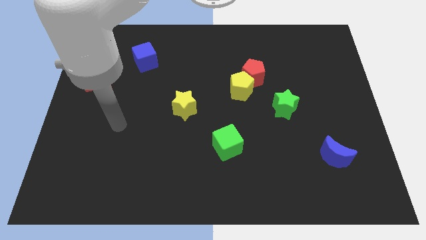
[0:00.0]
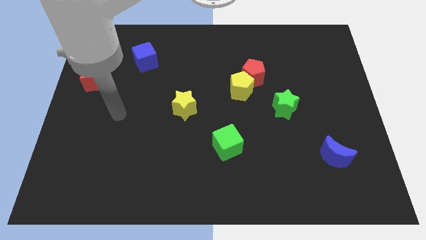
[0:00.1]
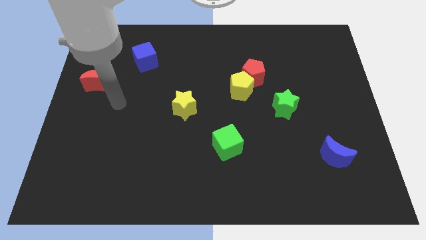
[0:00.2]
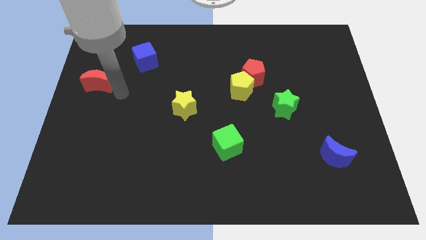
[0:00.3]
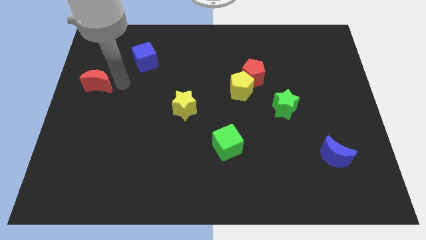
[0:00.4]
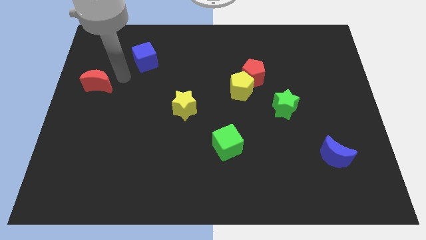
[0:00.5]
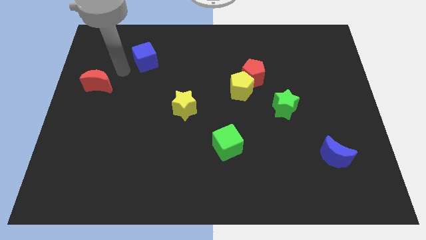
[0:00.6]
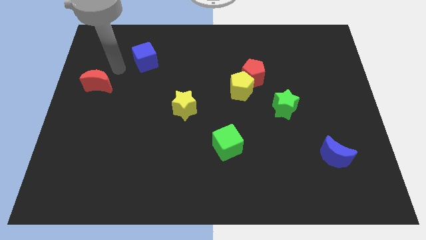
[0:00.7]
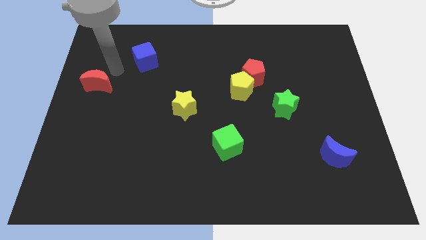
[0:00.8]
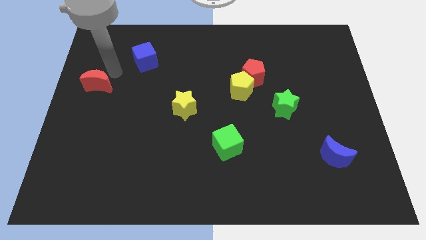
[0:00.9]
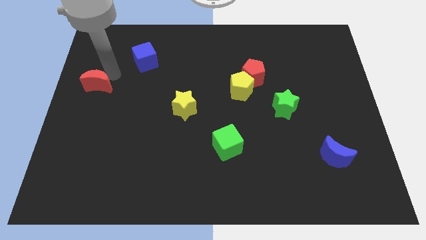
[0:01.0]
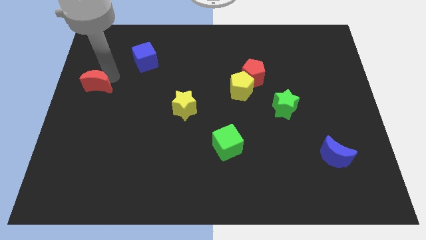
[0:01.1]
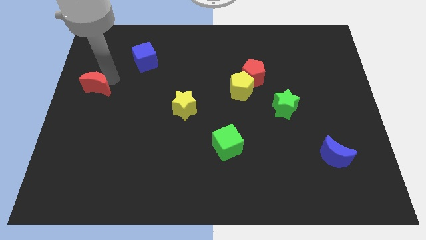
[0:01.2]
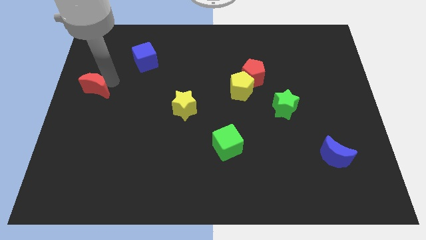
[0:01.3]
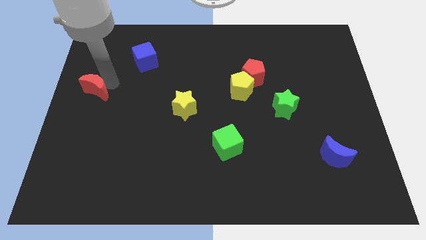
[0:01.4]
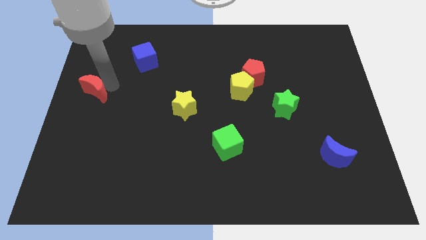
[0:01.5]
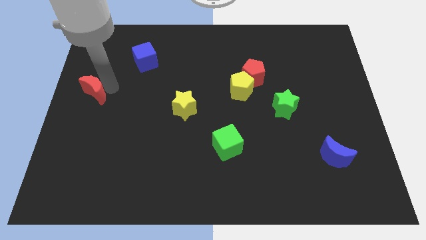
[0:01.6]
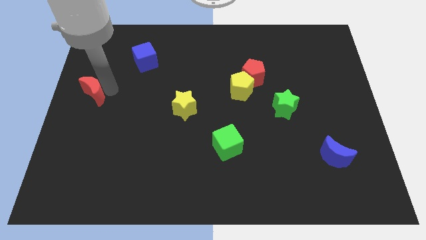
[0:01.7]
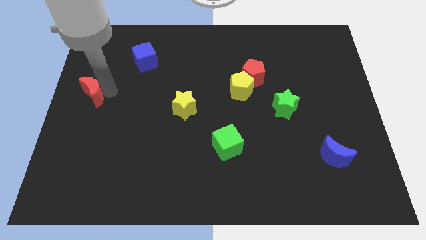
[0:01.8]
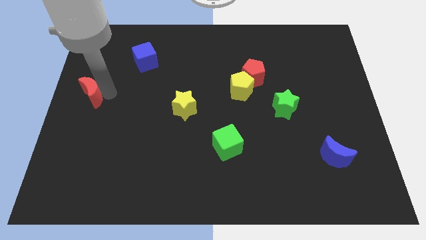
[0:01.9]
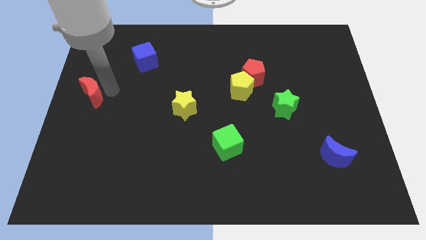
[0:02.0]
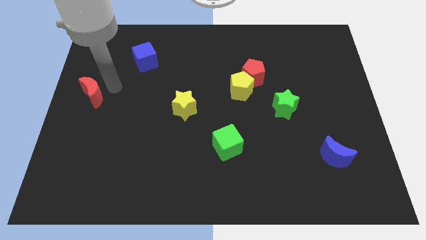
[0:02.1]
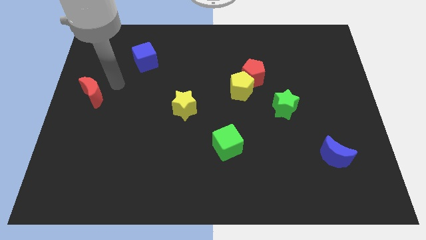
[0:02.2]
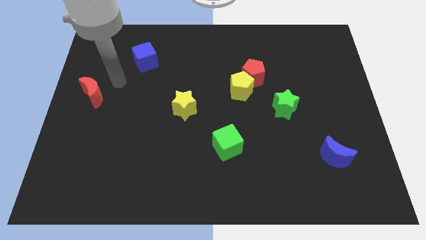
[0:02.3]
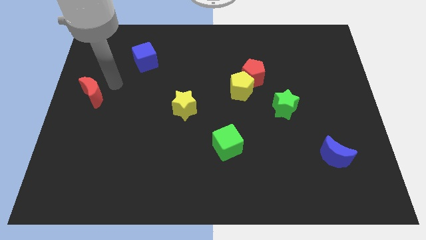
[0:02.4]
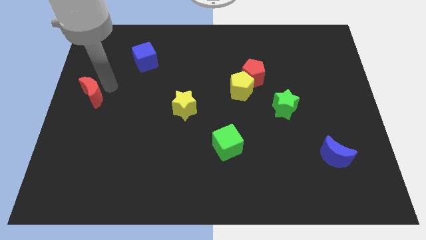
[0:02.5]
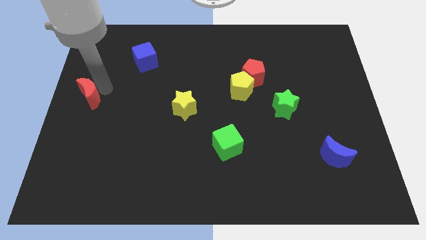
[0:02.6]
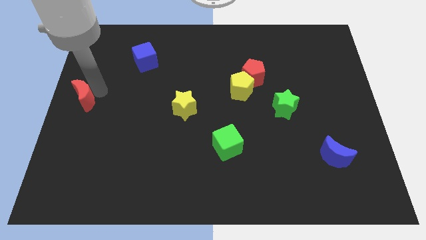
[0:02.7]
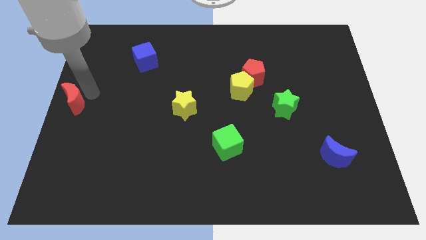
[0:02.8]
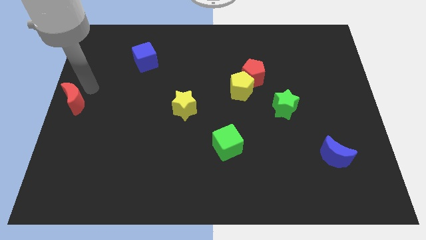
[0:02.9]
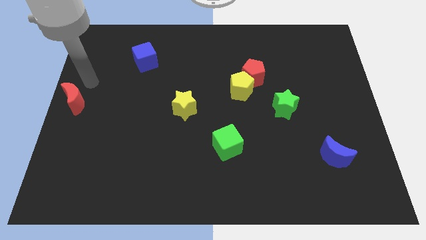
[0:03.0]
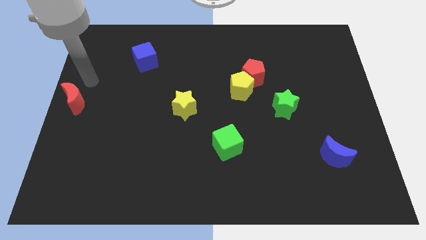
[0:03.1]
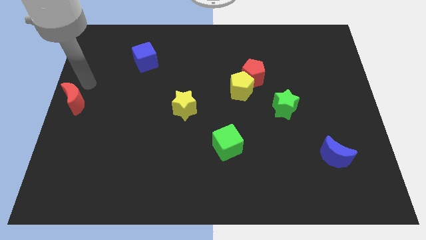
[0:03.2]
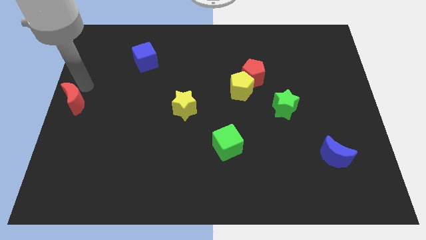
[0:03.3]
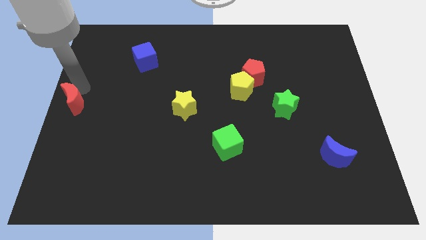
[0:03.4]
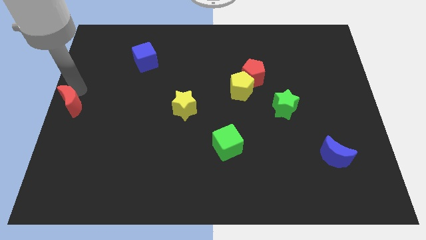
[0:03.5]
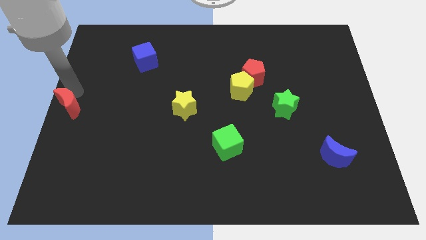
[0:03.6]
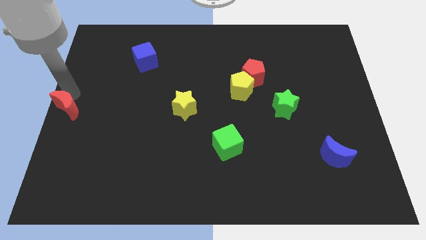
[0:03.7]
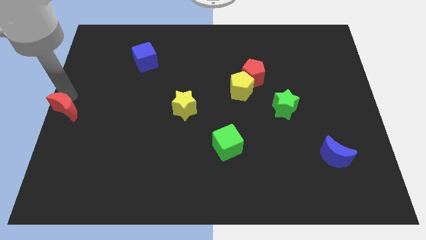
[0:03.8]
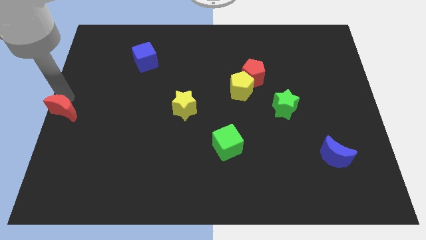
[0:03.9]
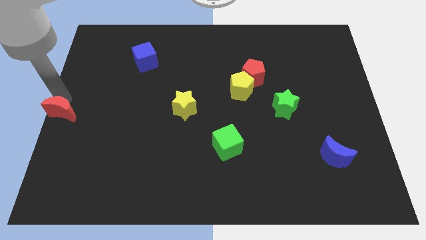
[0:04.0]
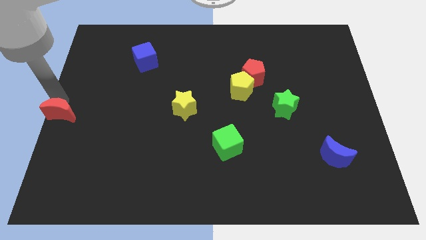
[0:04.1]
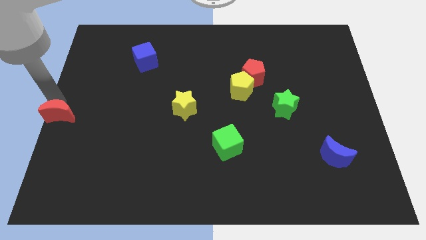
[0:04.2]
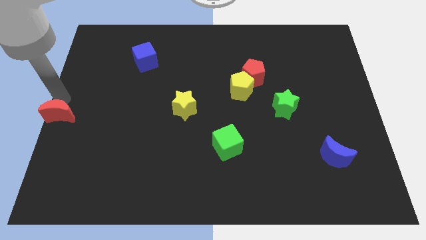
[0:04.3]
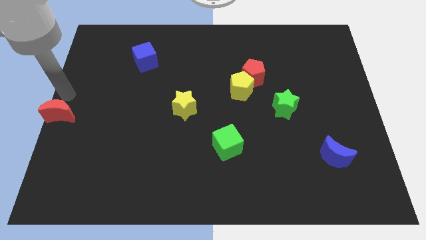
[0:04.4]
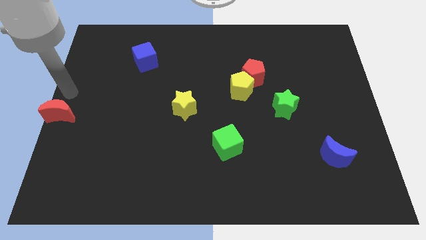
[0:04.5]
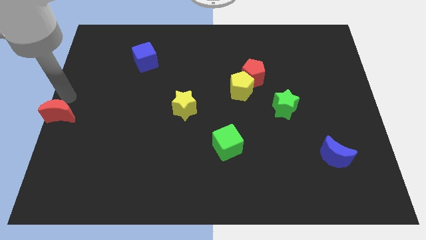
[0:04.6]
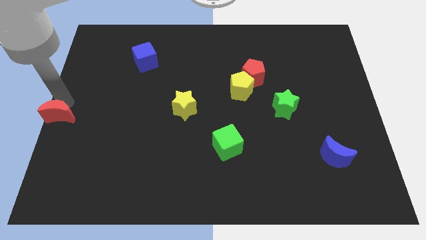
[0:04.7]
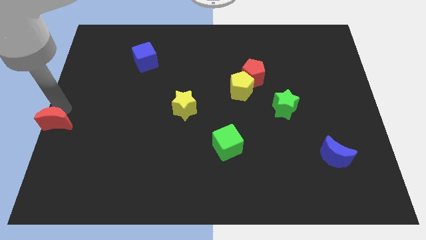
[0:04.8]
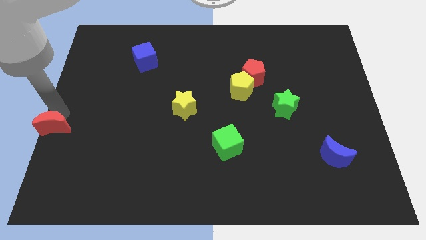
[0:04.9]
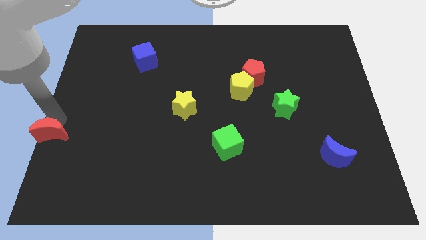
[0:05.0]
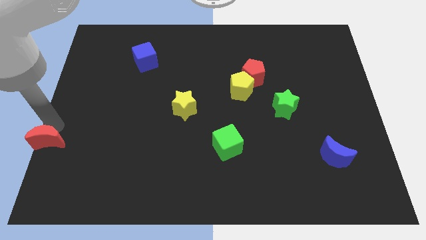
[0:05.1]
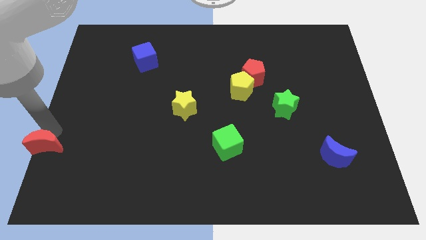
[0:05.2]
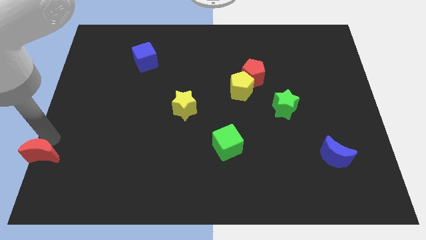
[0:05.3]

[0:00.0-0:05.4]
move the red moon to the lower left corner

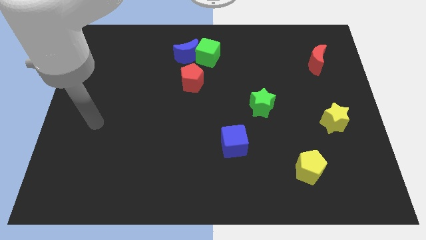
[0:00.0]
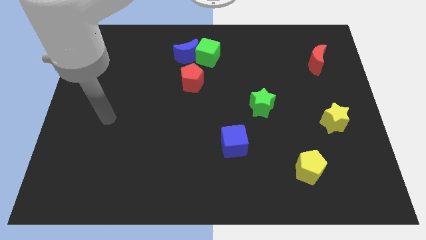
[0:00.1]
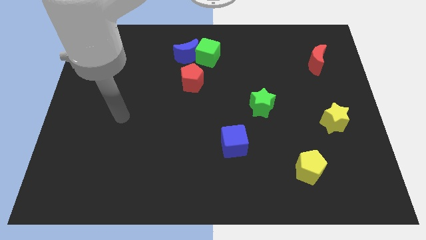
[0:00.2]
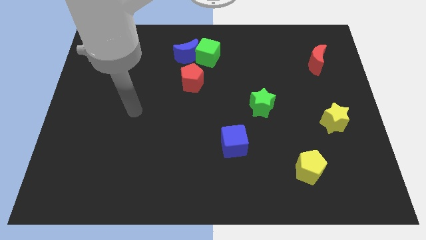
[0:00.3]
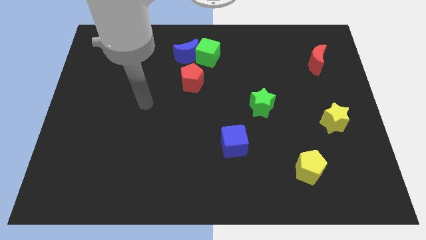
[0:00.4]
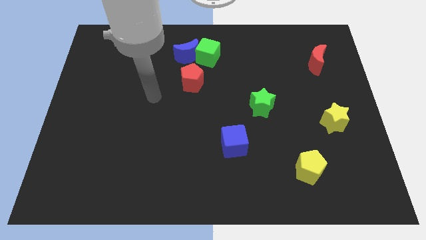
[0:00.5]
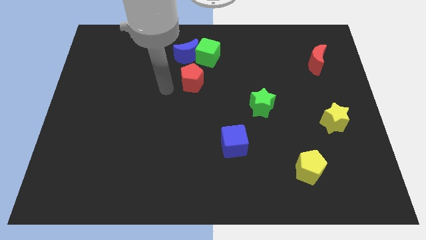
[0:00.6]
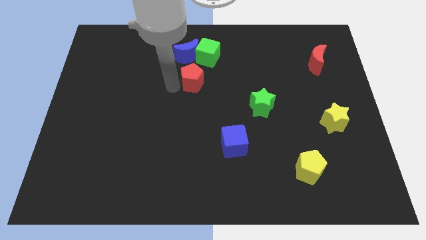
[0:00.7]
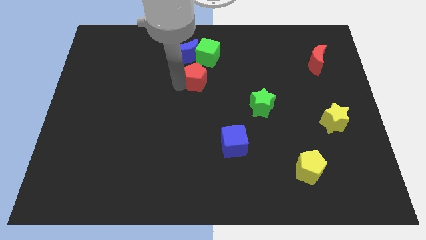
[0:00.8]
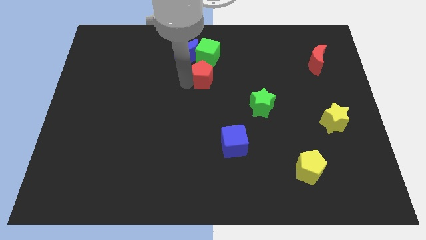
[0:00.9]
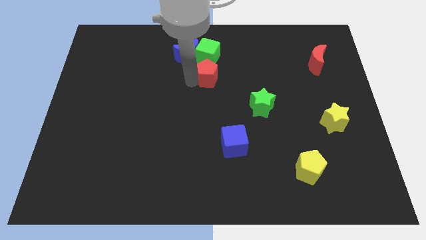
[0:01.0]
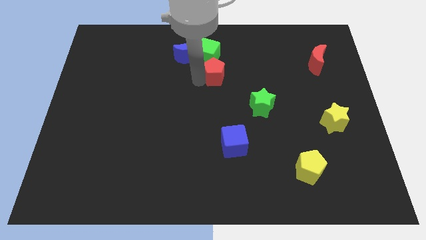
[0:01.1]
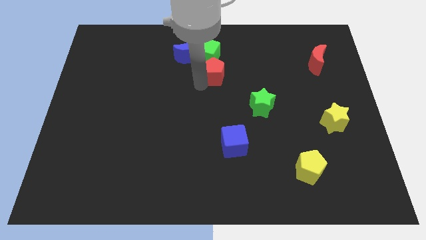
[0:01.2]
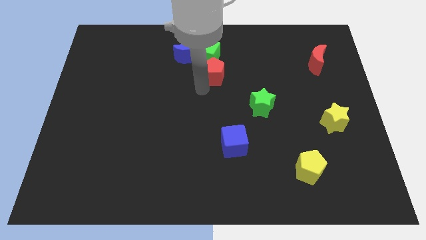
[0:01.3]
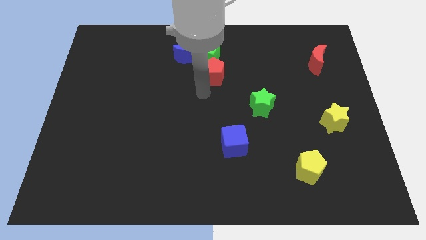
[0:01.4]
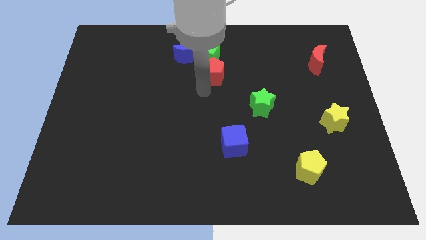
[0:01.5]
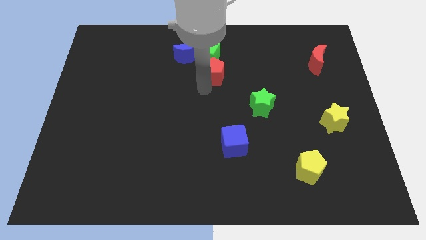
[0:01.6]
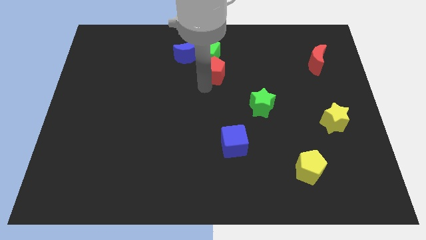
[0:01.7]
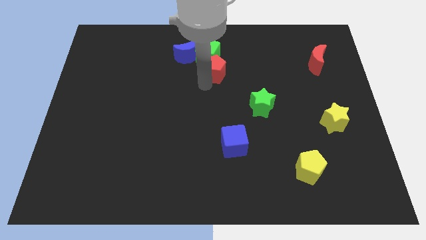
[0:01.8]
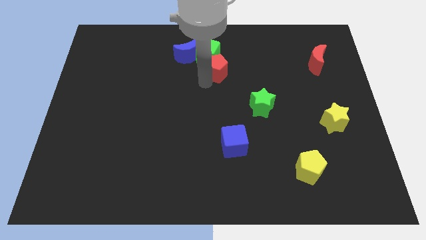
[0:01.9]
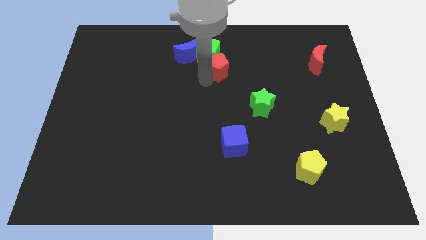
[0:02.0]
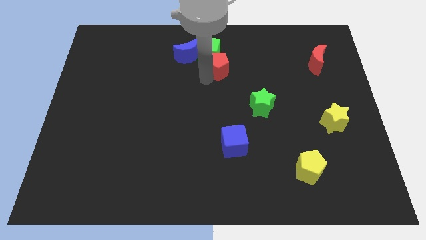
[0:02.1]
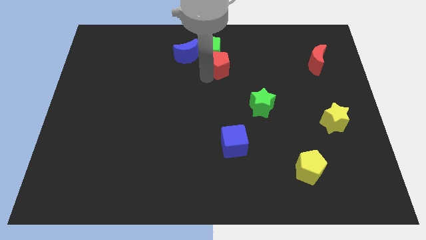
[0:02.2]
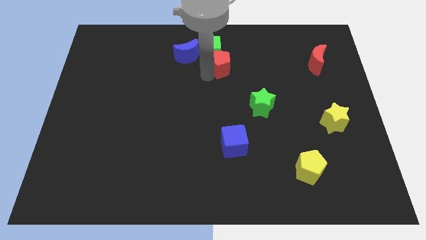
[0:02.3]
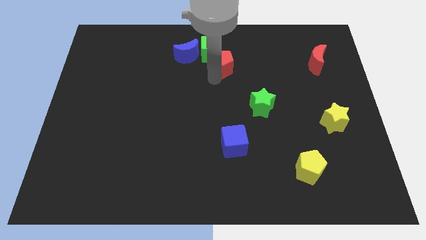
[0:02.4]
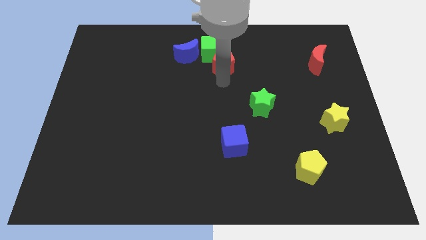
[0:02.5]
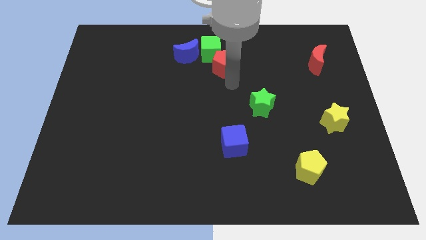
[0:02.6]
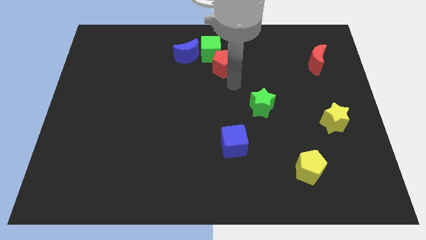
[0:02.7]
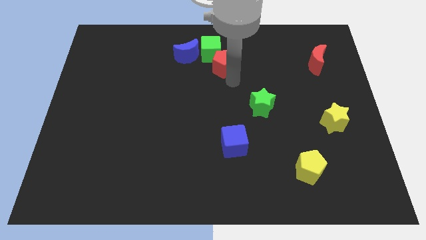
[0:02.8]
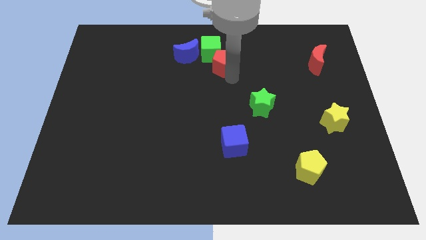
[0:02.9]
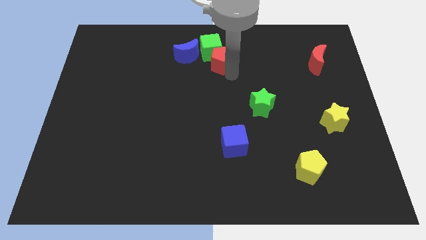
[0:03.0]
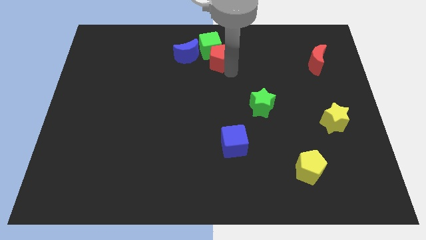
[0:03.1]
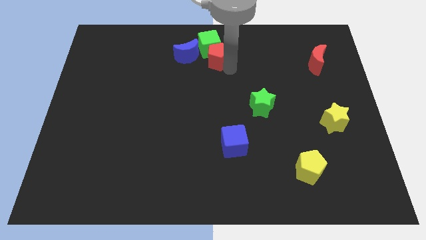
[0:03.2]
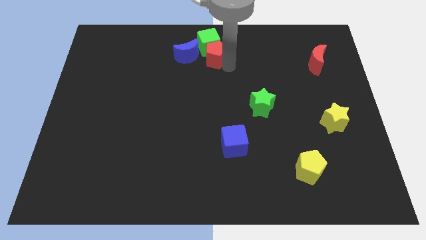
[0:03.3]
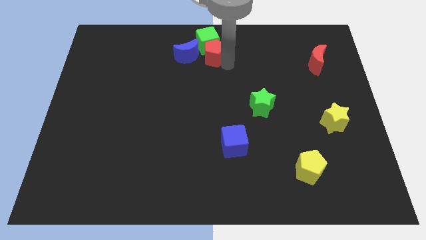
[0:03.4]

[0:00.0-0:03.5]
move the red pentagon to the top
